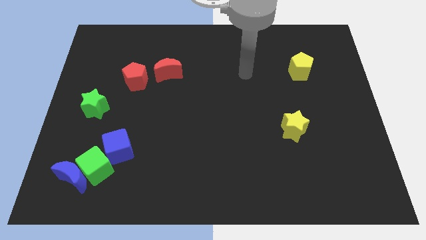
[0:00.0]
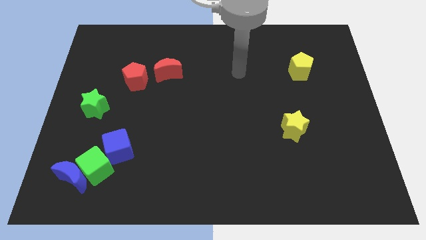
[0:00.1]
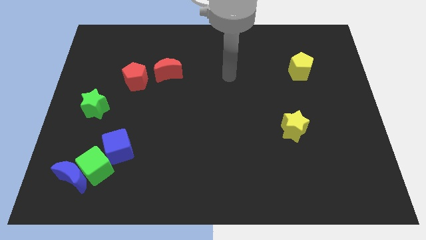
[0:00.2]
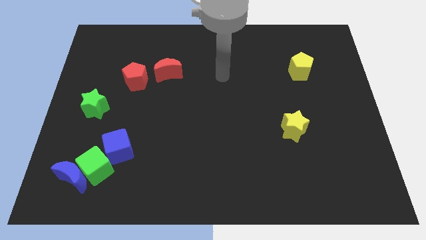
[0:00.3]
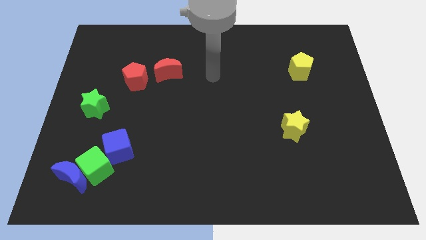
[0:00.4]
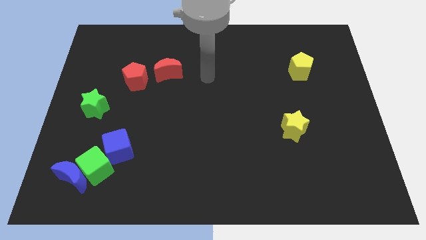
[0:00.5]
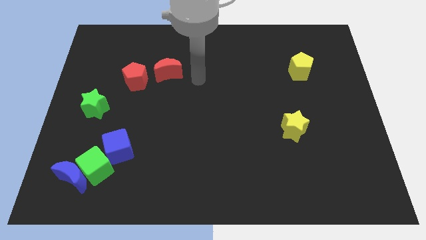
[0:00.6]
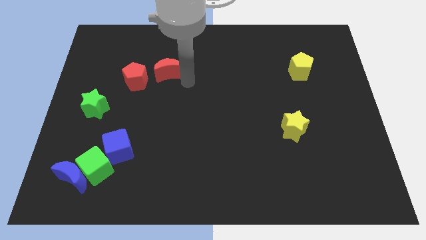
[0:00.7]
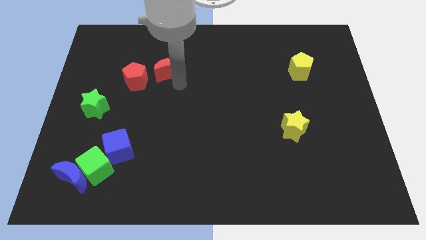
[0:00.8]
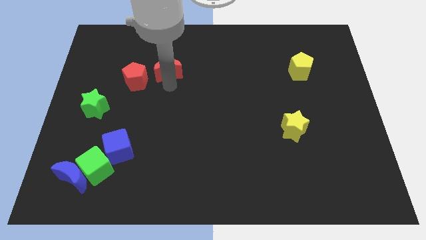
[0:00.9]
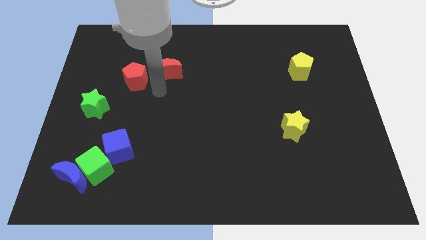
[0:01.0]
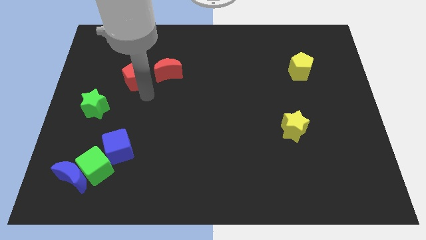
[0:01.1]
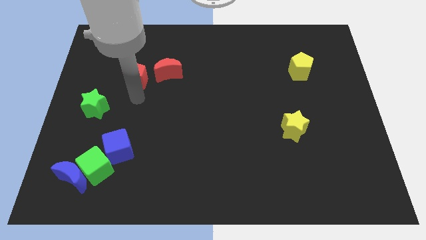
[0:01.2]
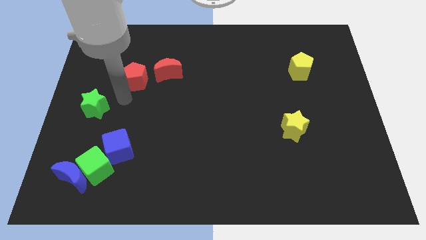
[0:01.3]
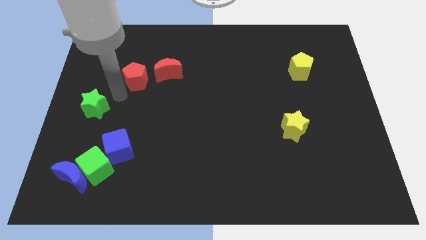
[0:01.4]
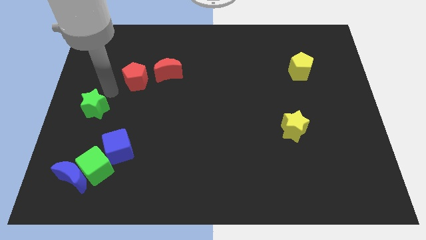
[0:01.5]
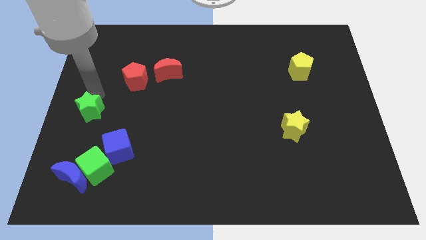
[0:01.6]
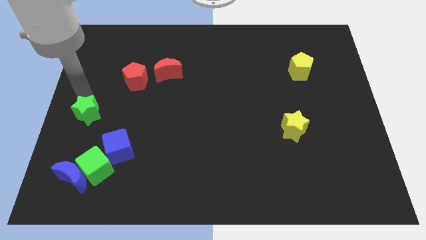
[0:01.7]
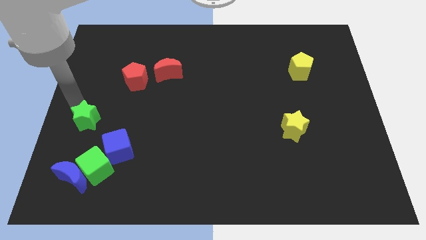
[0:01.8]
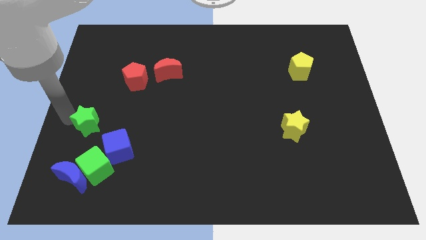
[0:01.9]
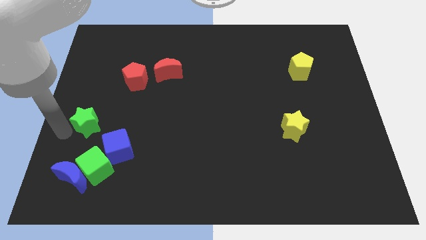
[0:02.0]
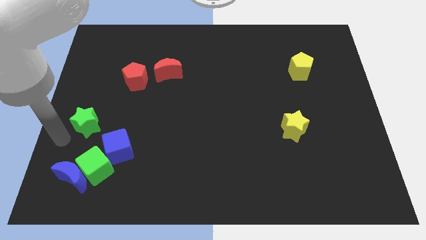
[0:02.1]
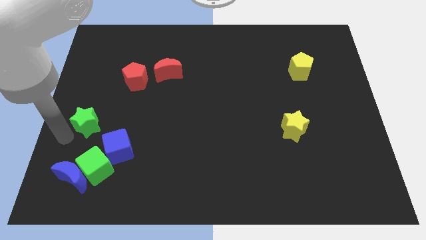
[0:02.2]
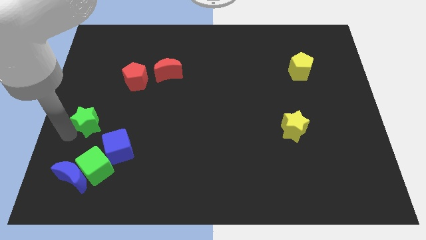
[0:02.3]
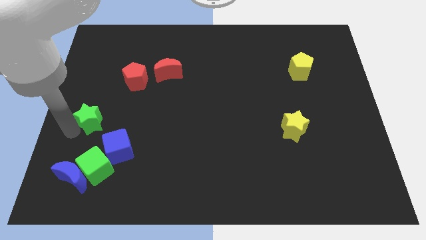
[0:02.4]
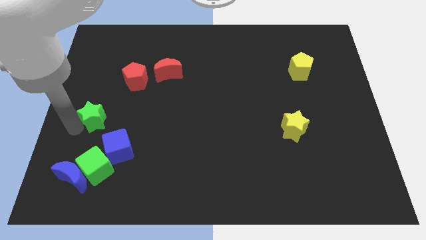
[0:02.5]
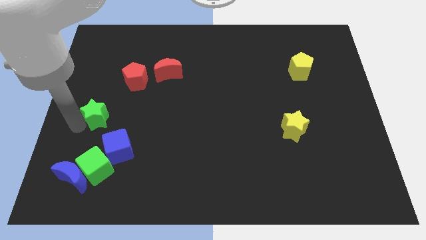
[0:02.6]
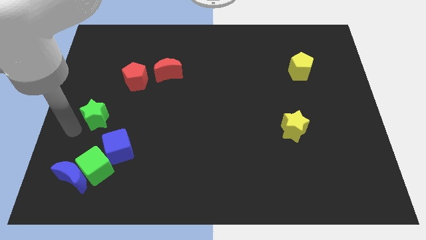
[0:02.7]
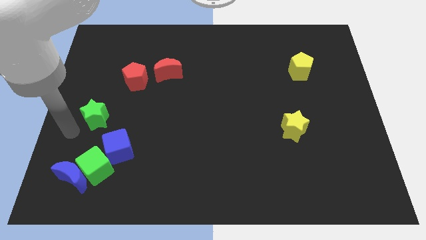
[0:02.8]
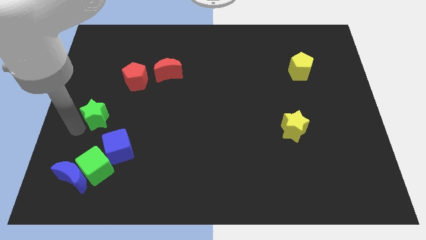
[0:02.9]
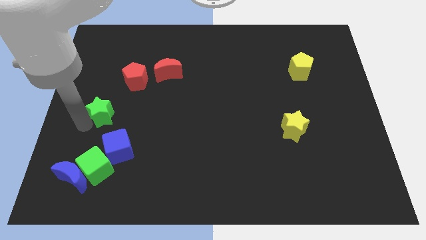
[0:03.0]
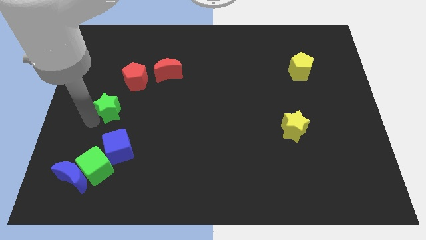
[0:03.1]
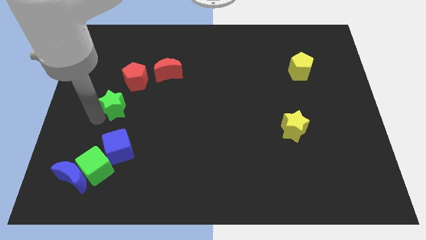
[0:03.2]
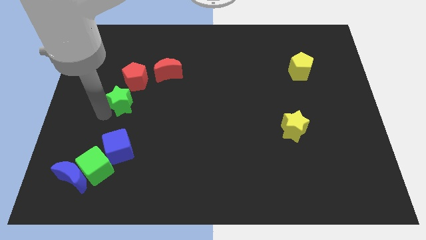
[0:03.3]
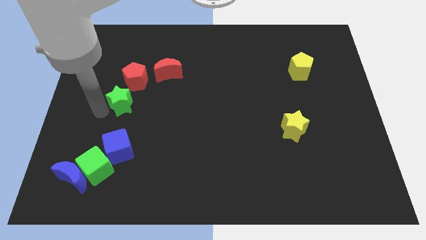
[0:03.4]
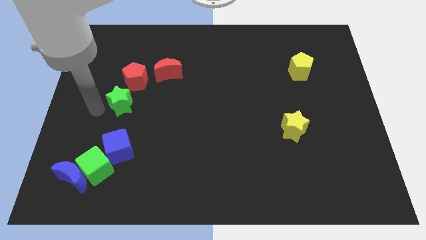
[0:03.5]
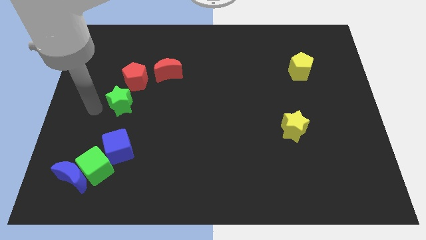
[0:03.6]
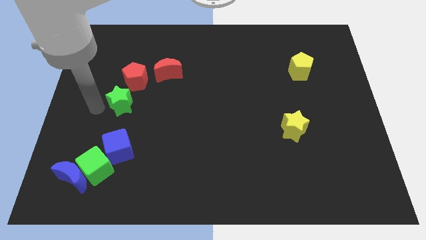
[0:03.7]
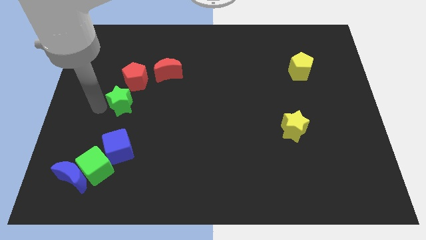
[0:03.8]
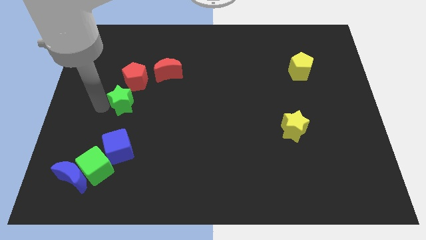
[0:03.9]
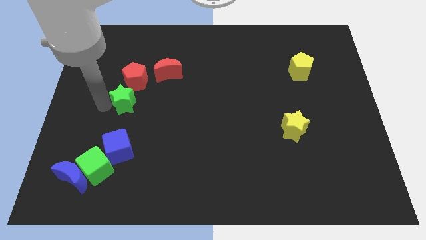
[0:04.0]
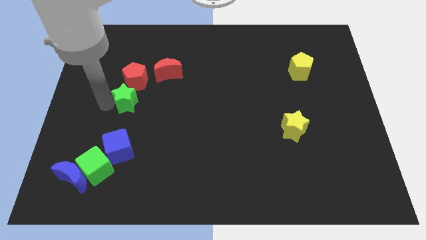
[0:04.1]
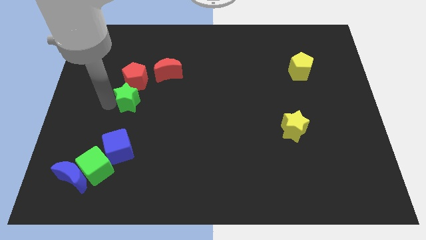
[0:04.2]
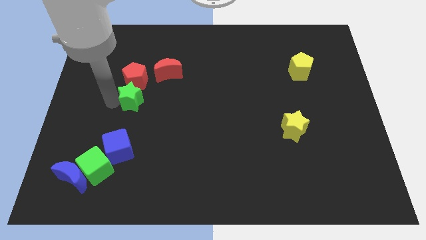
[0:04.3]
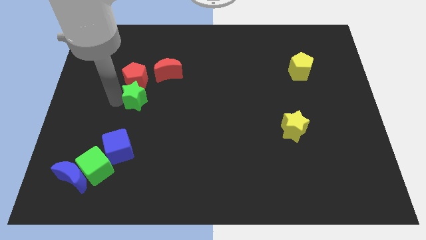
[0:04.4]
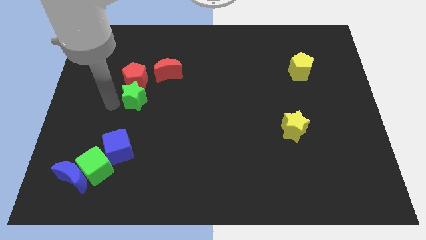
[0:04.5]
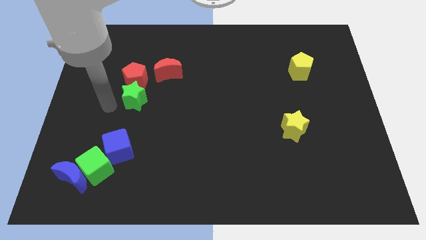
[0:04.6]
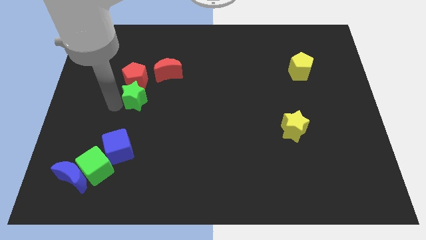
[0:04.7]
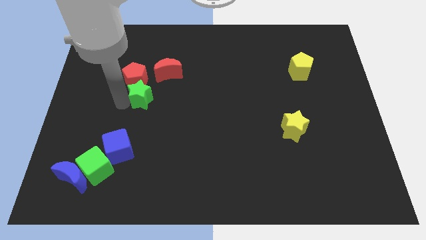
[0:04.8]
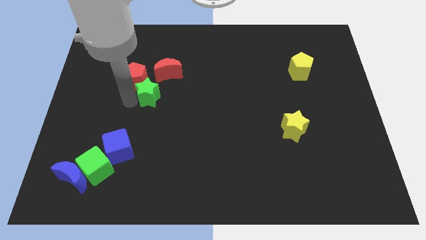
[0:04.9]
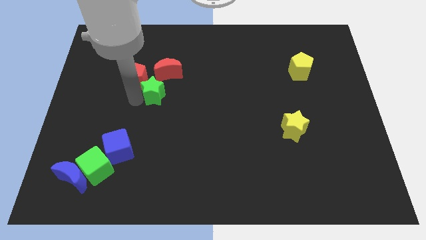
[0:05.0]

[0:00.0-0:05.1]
put the green star right of the red pentagon

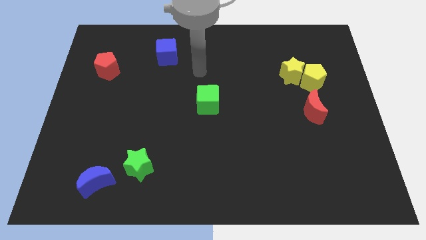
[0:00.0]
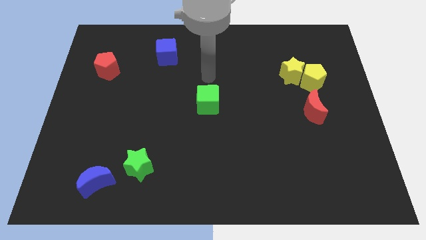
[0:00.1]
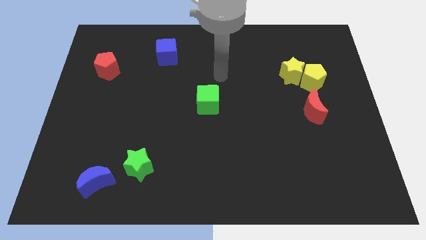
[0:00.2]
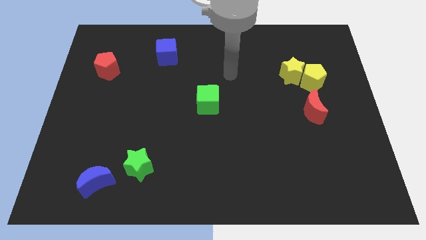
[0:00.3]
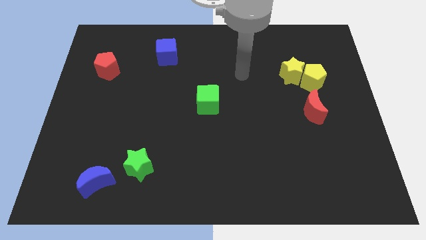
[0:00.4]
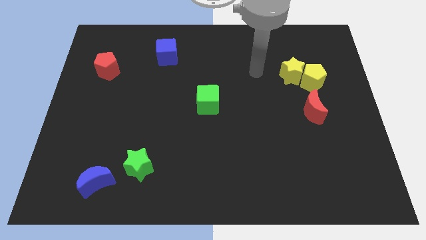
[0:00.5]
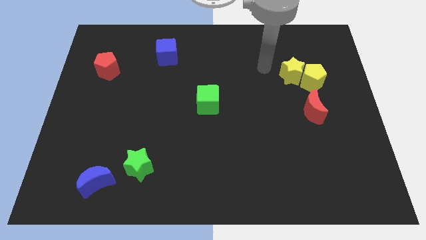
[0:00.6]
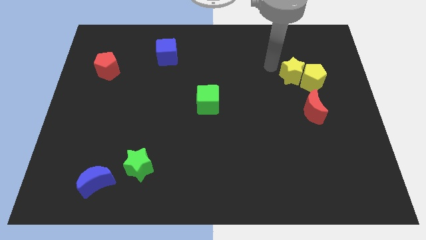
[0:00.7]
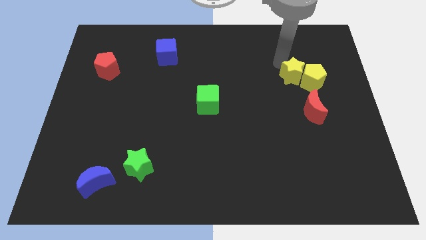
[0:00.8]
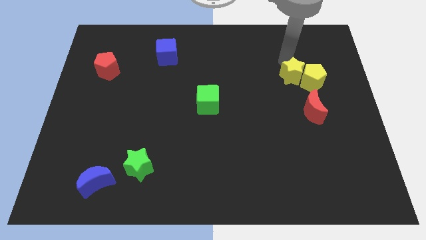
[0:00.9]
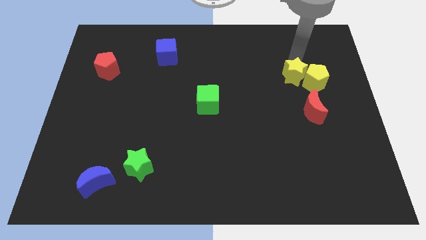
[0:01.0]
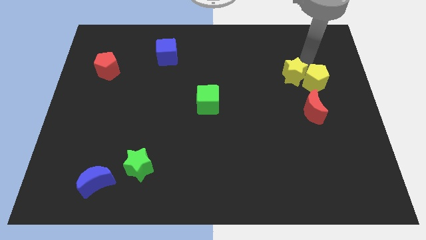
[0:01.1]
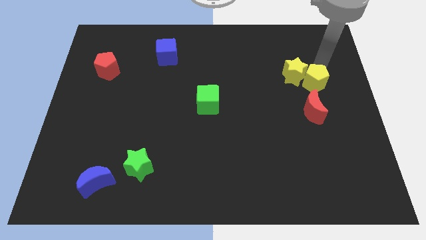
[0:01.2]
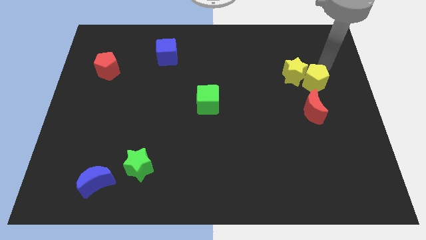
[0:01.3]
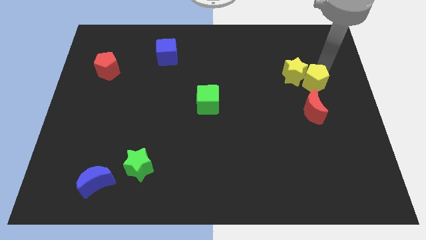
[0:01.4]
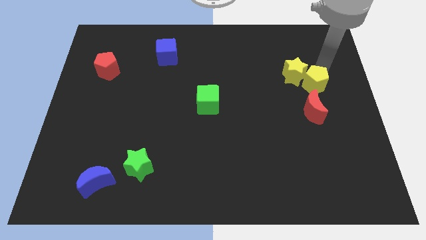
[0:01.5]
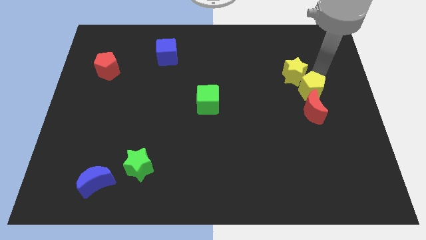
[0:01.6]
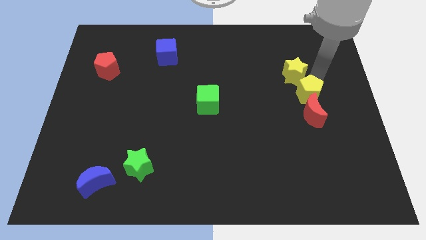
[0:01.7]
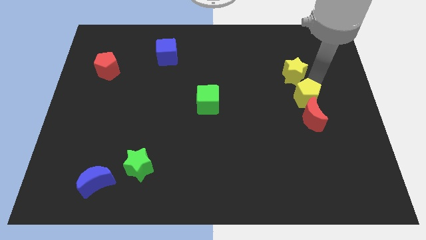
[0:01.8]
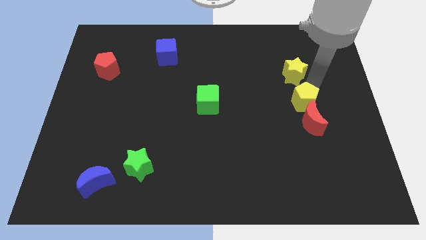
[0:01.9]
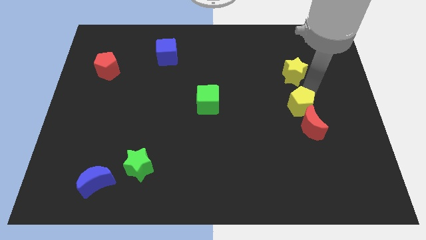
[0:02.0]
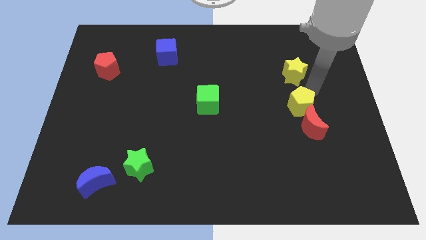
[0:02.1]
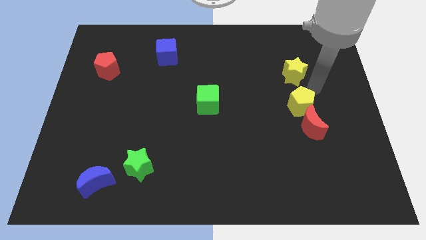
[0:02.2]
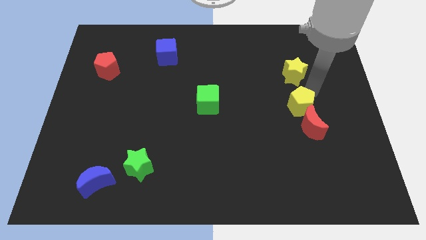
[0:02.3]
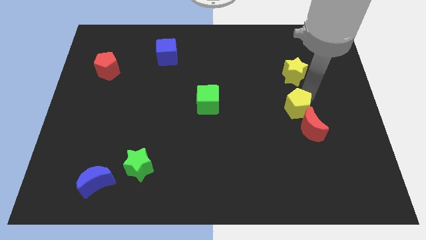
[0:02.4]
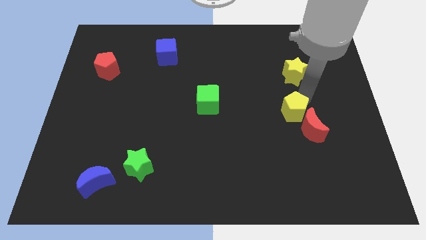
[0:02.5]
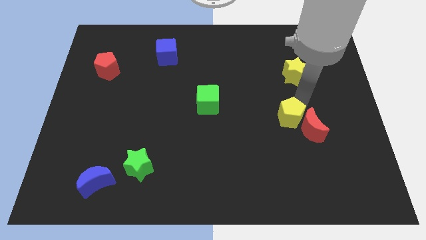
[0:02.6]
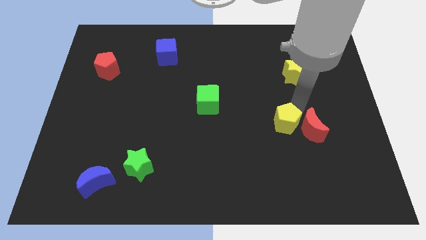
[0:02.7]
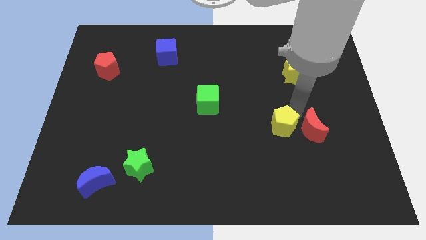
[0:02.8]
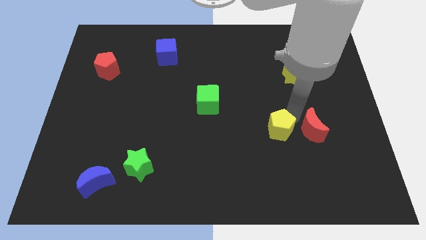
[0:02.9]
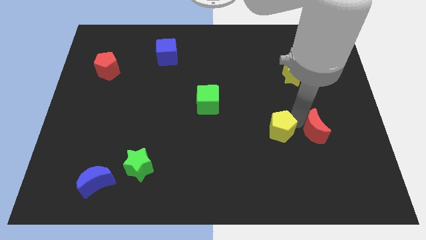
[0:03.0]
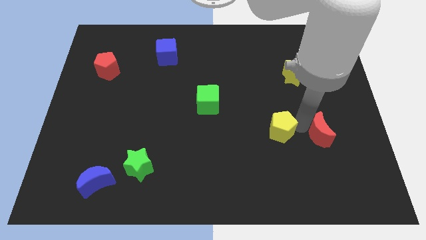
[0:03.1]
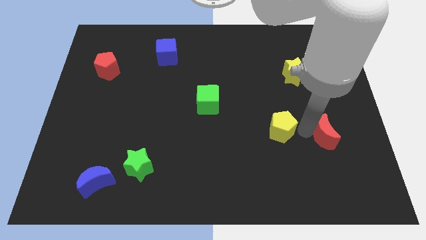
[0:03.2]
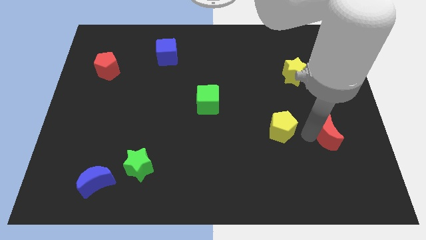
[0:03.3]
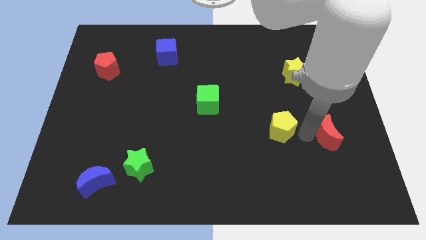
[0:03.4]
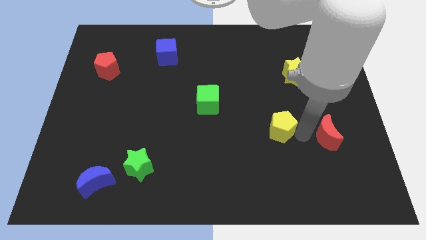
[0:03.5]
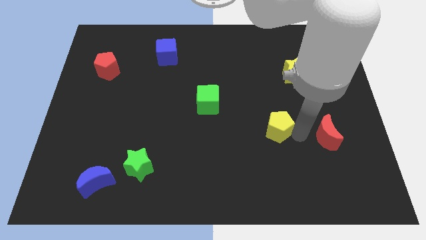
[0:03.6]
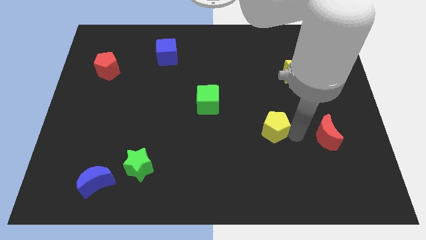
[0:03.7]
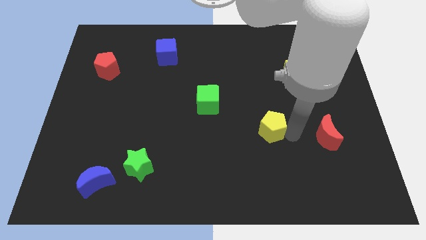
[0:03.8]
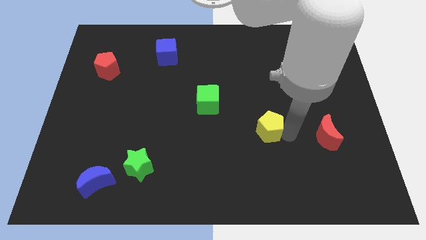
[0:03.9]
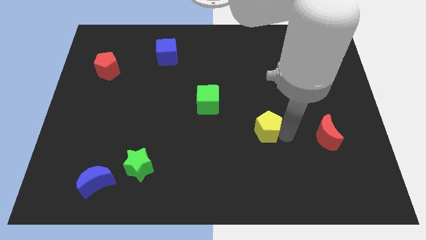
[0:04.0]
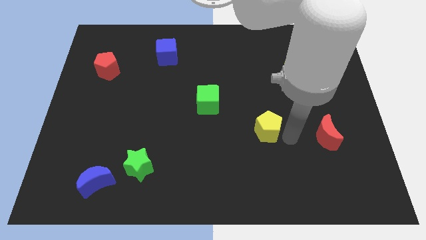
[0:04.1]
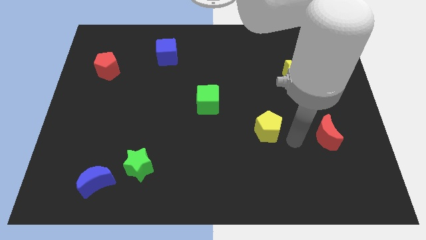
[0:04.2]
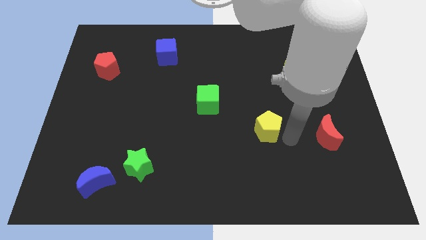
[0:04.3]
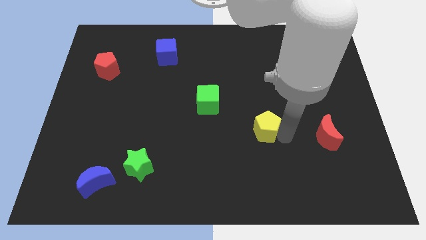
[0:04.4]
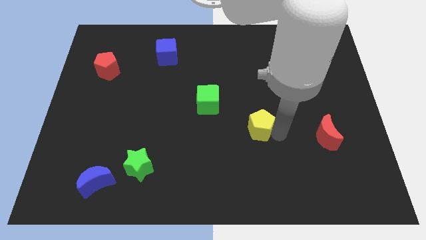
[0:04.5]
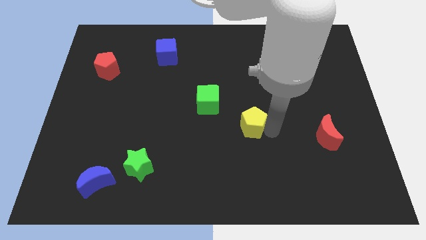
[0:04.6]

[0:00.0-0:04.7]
slide the yellow pentagon to the bottom right side of the green cube
